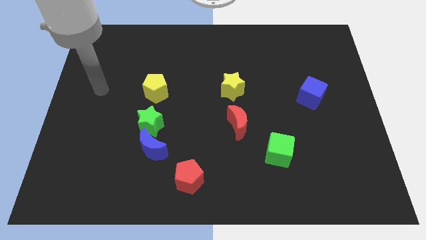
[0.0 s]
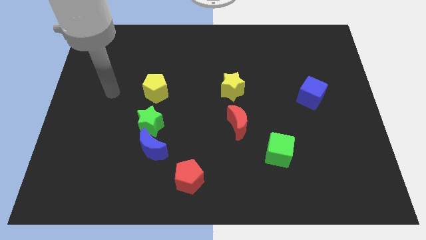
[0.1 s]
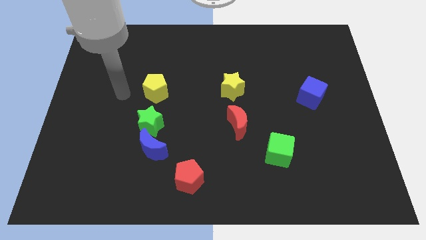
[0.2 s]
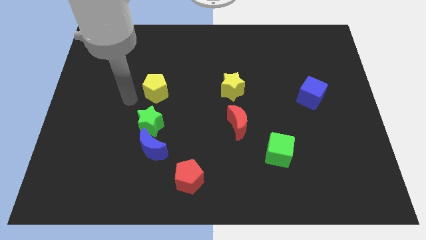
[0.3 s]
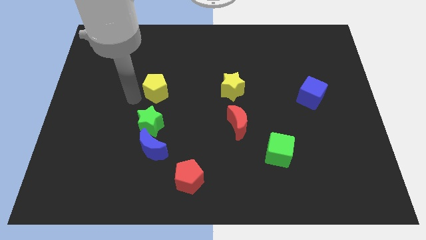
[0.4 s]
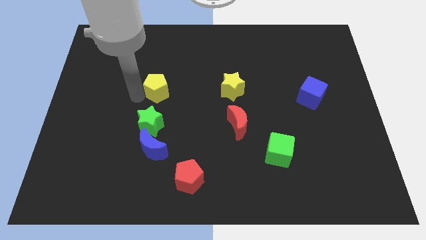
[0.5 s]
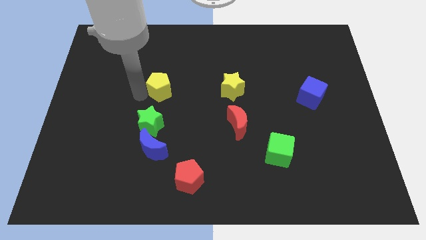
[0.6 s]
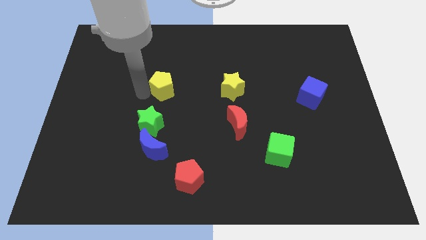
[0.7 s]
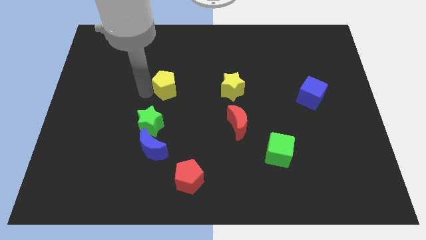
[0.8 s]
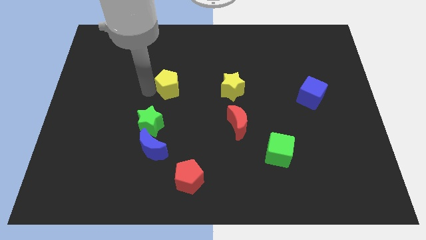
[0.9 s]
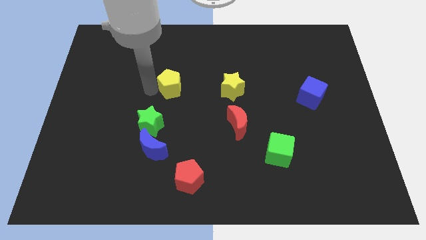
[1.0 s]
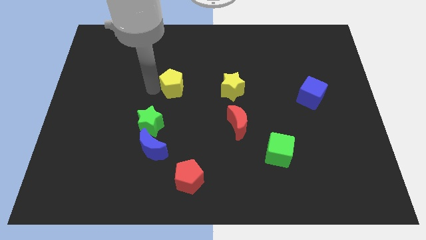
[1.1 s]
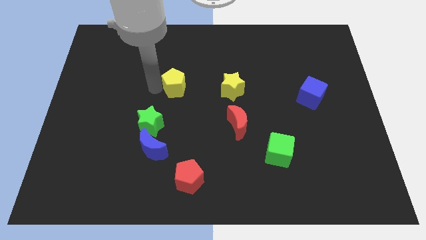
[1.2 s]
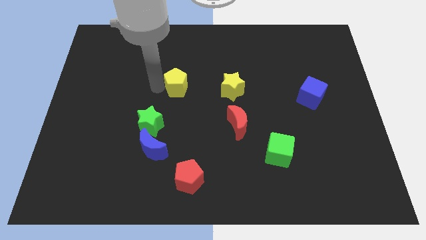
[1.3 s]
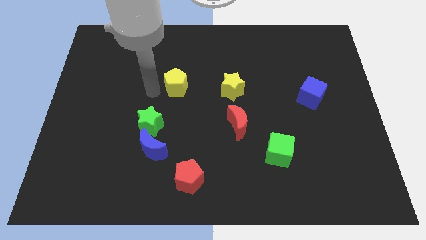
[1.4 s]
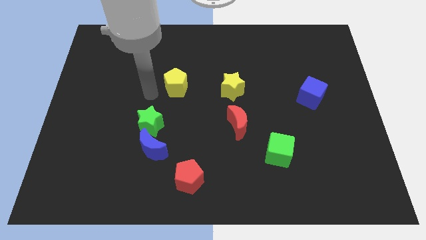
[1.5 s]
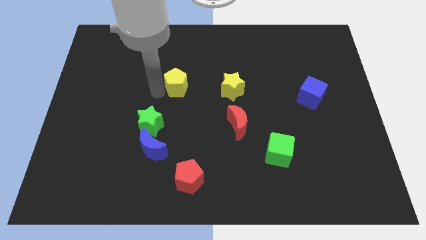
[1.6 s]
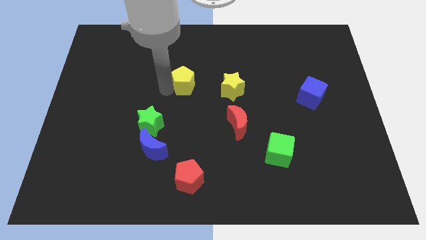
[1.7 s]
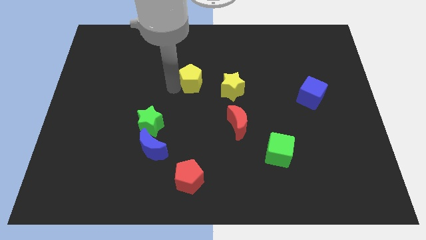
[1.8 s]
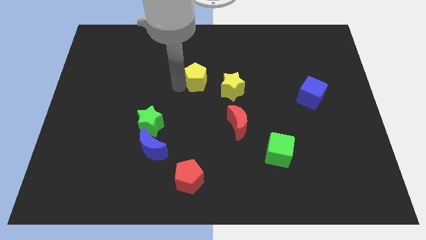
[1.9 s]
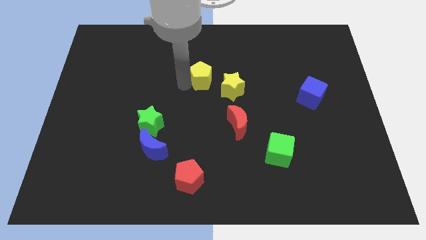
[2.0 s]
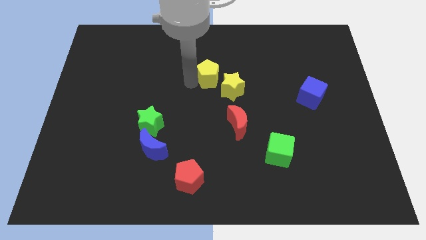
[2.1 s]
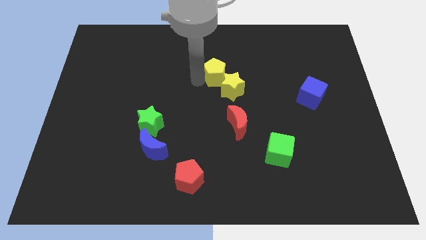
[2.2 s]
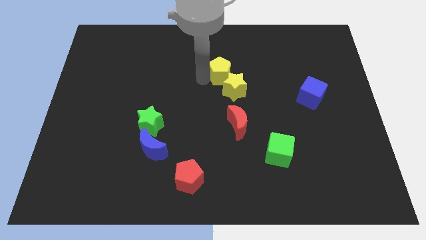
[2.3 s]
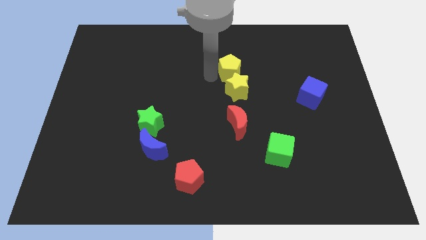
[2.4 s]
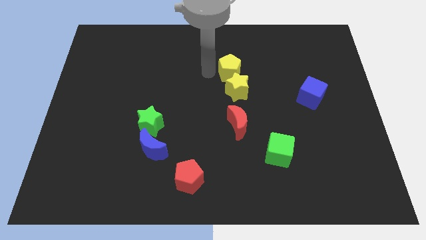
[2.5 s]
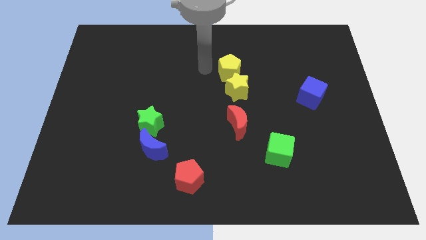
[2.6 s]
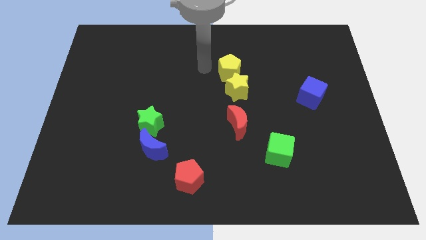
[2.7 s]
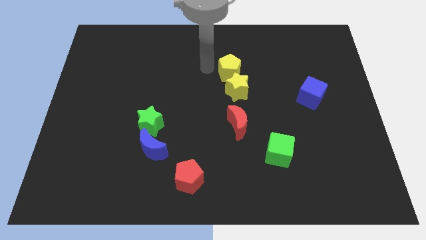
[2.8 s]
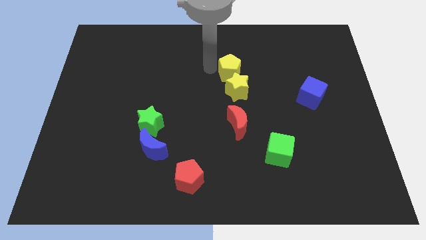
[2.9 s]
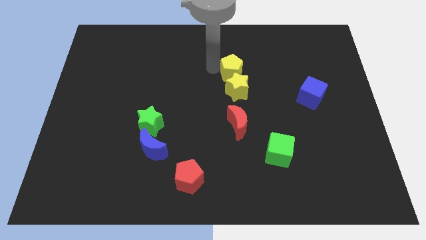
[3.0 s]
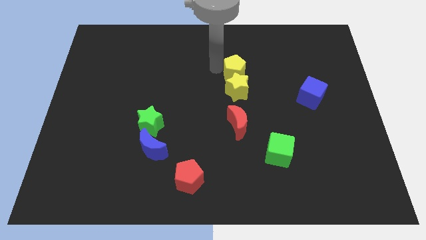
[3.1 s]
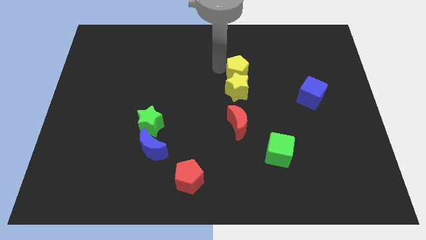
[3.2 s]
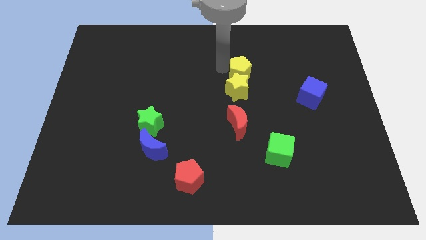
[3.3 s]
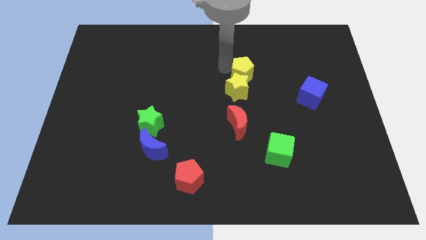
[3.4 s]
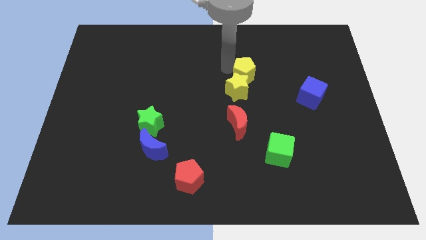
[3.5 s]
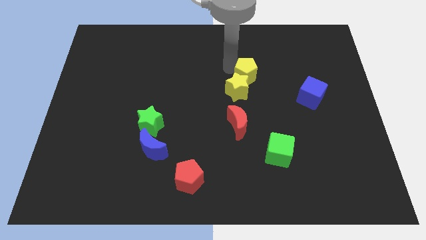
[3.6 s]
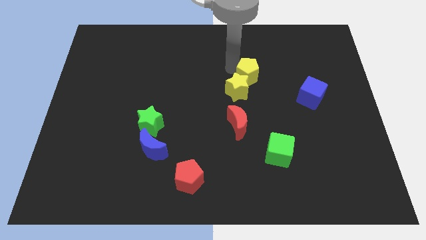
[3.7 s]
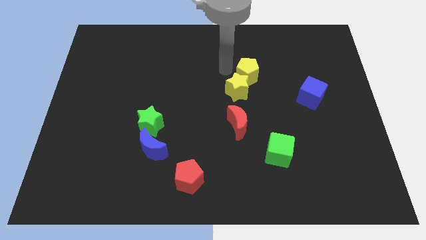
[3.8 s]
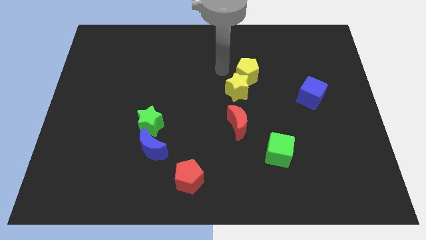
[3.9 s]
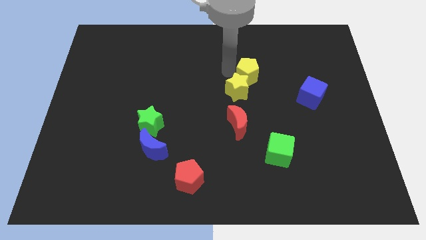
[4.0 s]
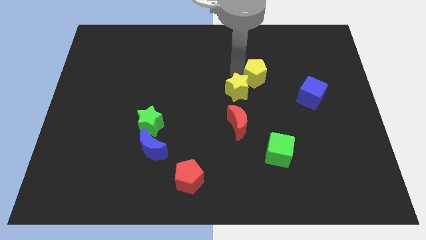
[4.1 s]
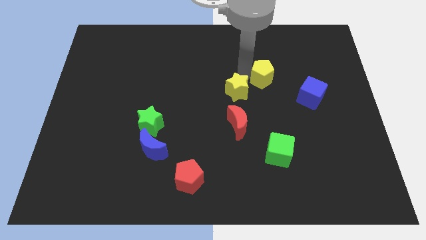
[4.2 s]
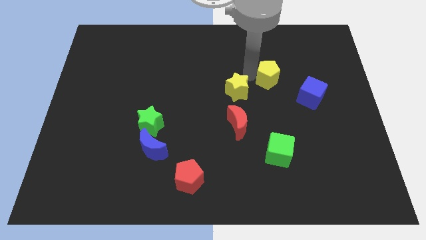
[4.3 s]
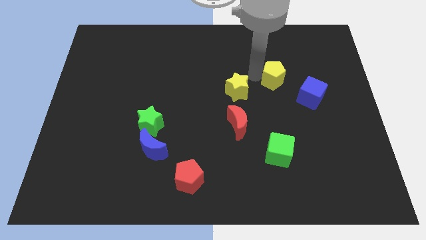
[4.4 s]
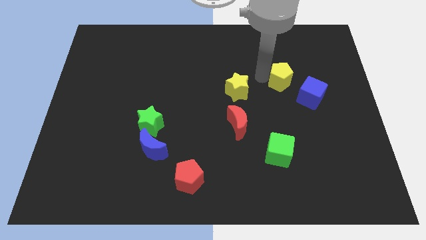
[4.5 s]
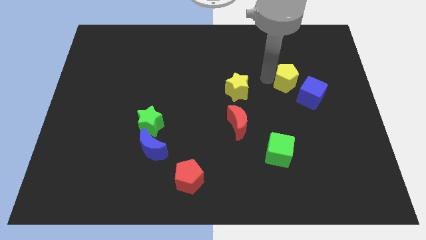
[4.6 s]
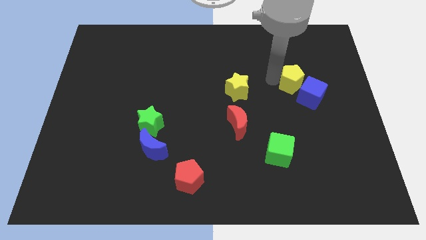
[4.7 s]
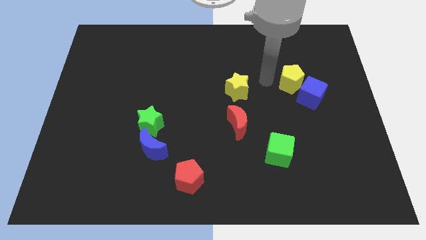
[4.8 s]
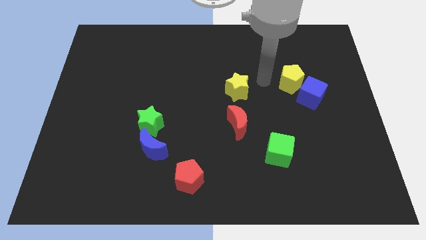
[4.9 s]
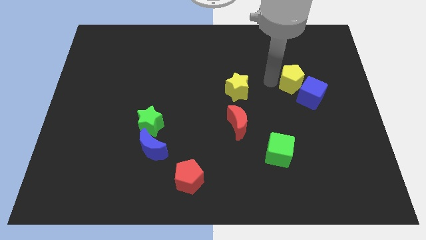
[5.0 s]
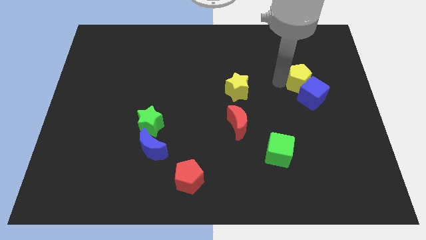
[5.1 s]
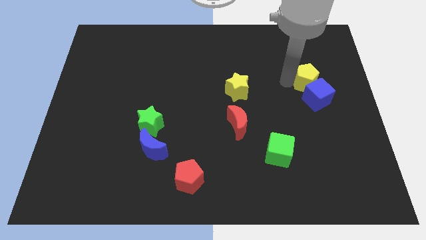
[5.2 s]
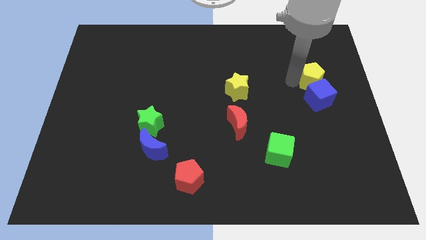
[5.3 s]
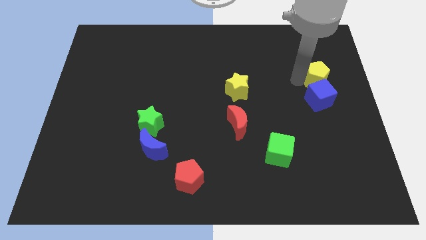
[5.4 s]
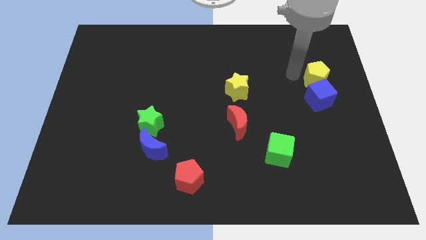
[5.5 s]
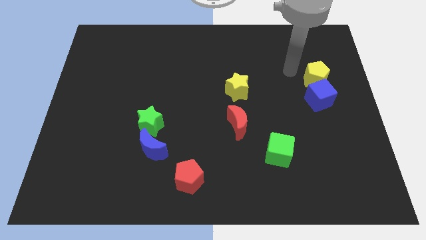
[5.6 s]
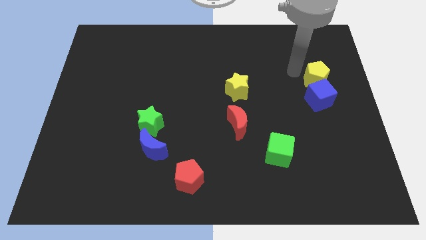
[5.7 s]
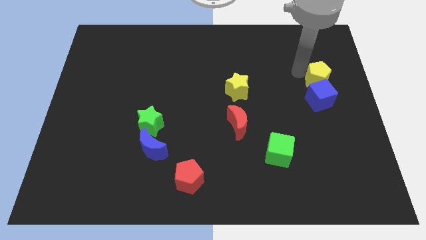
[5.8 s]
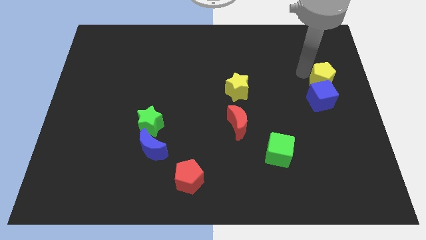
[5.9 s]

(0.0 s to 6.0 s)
slide the yellow pentagon to the center right

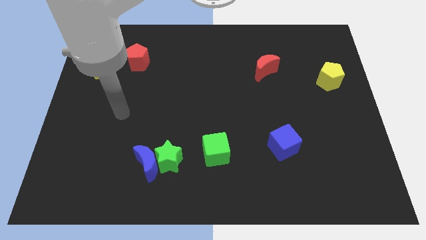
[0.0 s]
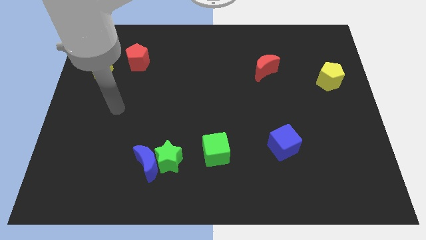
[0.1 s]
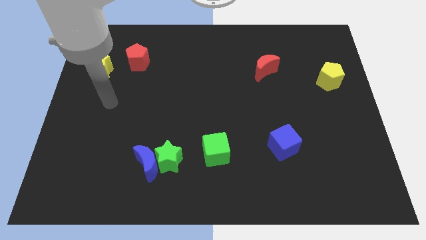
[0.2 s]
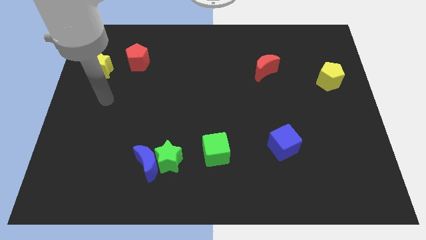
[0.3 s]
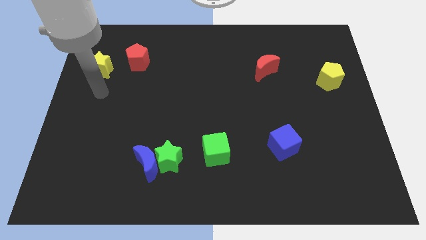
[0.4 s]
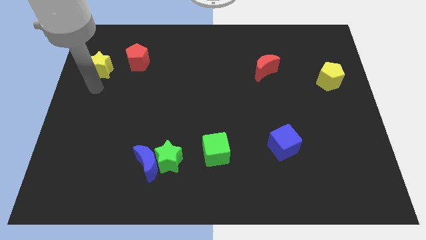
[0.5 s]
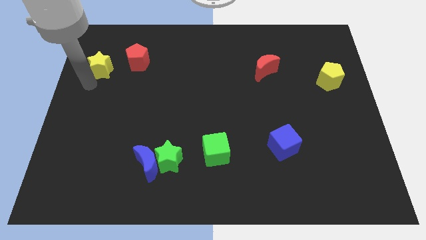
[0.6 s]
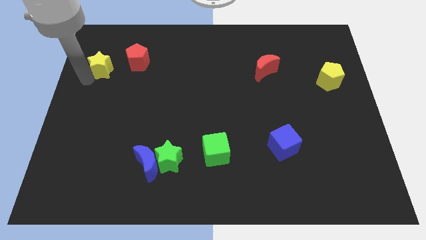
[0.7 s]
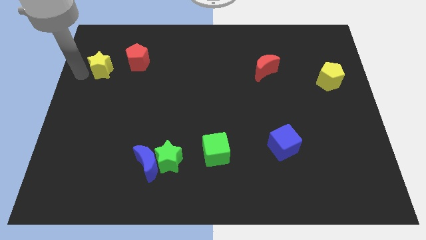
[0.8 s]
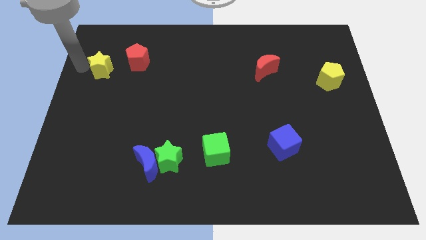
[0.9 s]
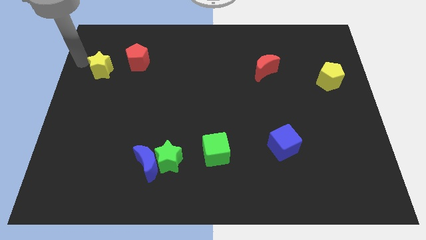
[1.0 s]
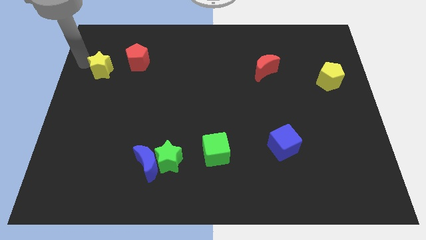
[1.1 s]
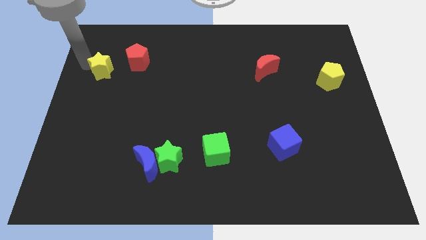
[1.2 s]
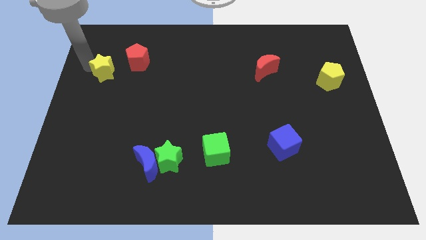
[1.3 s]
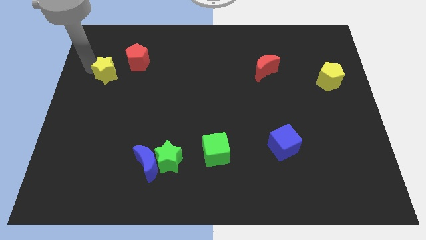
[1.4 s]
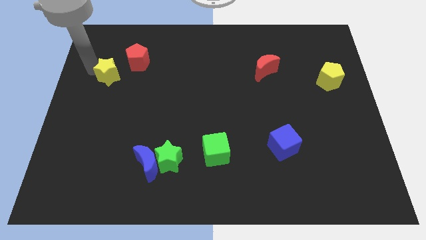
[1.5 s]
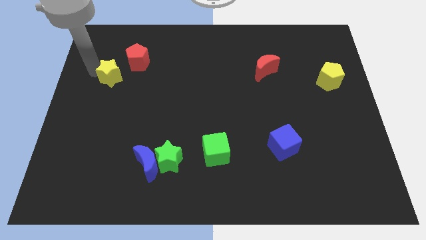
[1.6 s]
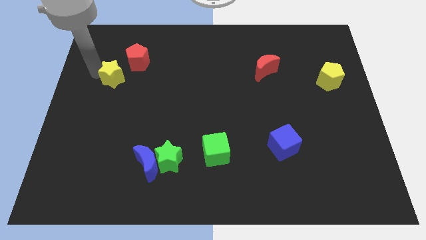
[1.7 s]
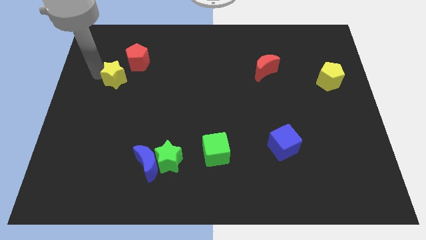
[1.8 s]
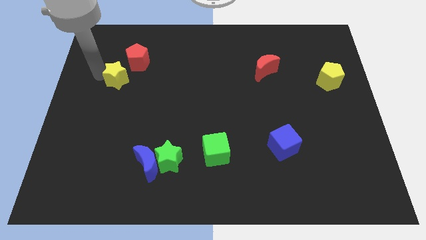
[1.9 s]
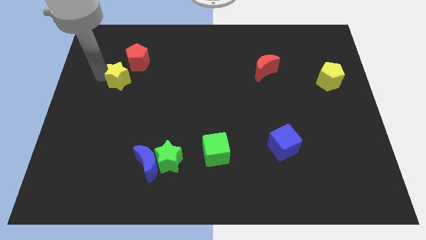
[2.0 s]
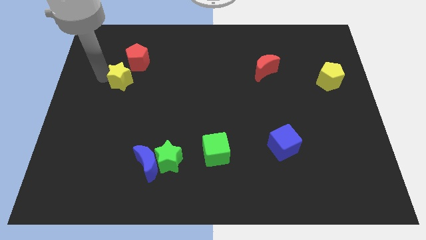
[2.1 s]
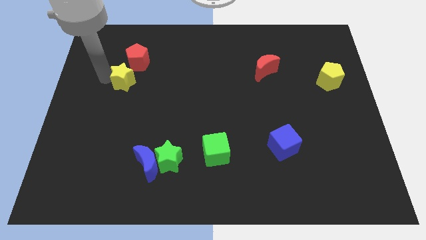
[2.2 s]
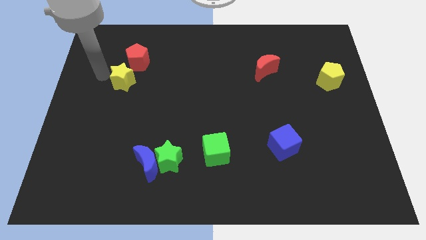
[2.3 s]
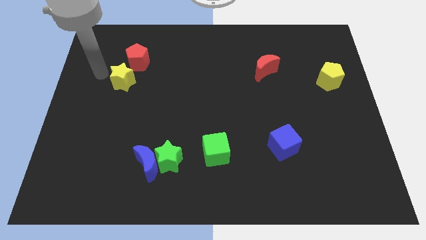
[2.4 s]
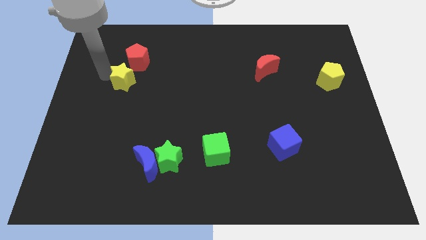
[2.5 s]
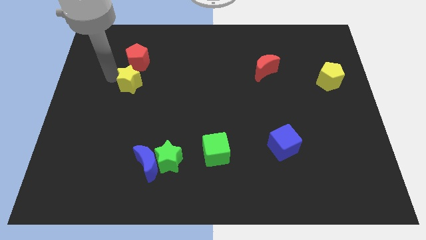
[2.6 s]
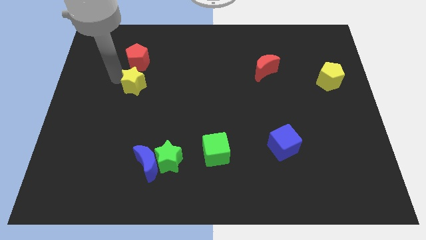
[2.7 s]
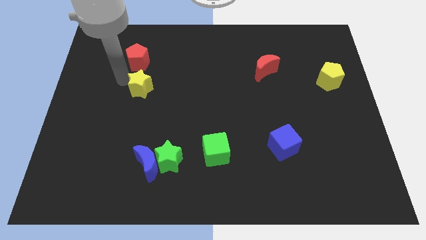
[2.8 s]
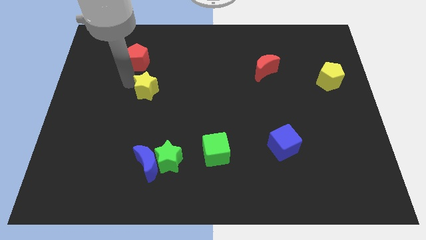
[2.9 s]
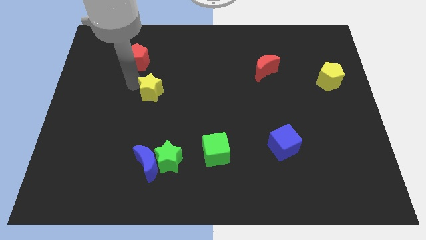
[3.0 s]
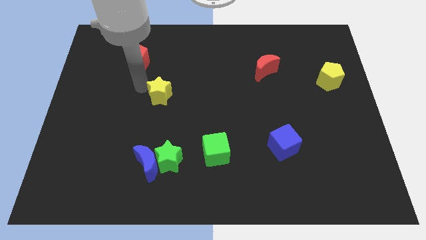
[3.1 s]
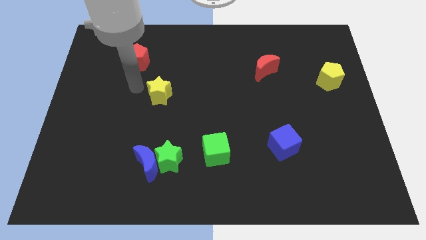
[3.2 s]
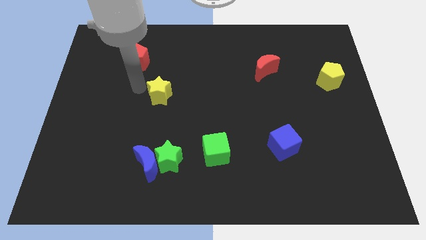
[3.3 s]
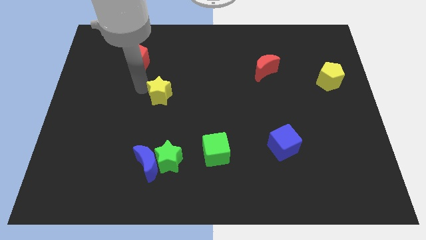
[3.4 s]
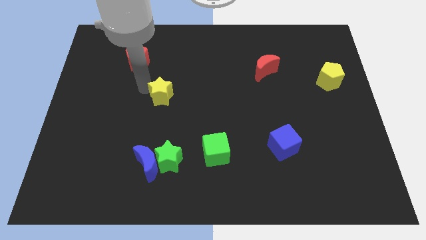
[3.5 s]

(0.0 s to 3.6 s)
move the yellow star to the center
